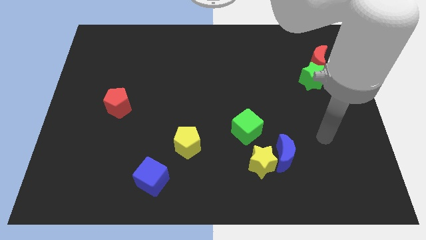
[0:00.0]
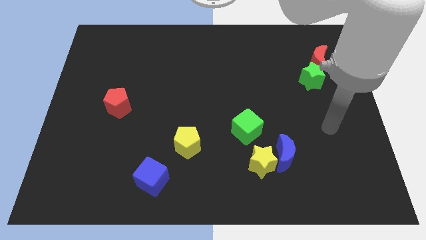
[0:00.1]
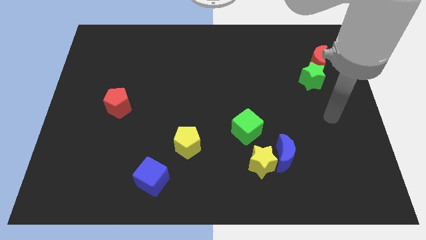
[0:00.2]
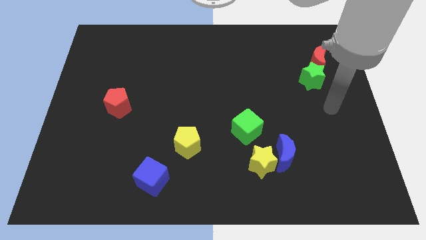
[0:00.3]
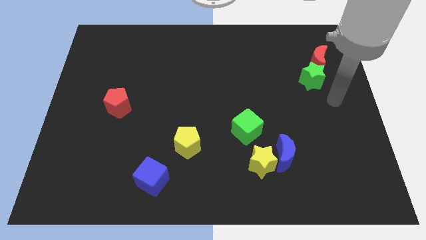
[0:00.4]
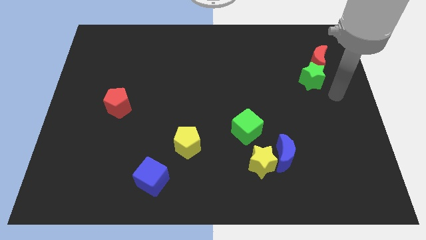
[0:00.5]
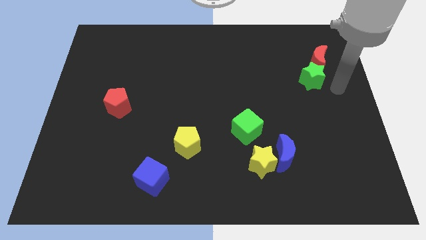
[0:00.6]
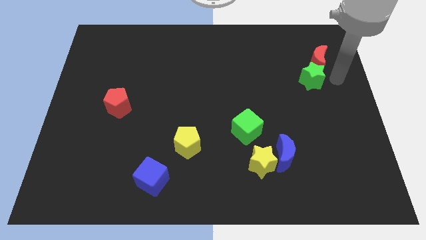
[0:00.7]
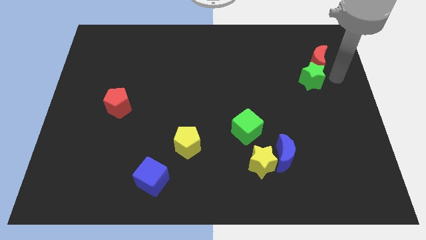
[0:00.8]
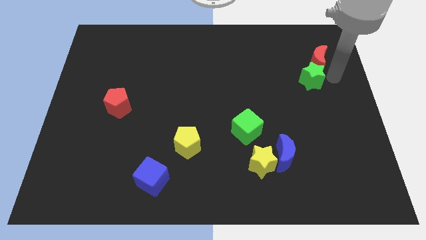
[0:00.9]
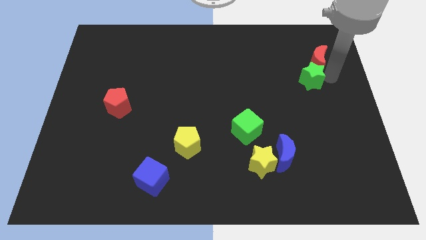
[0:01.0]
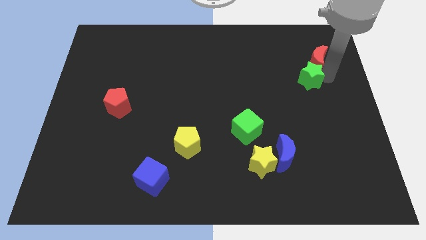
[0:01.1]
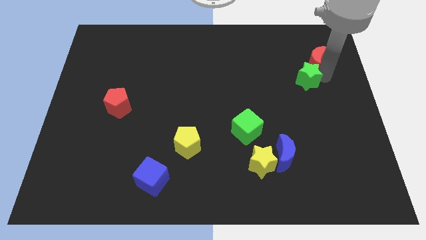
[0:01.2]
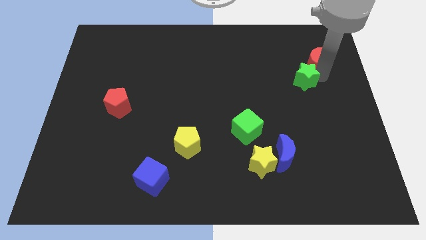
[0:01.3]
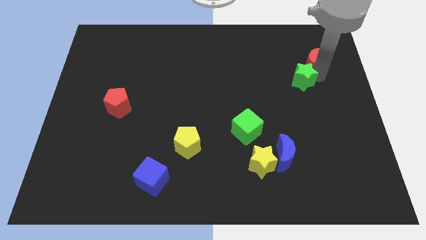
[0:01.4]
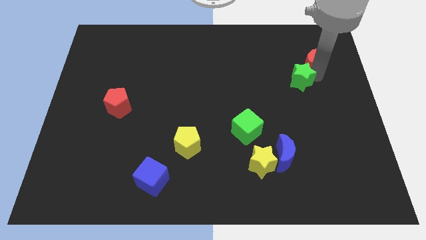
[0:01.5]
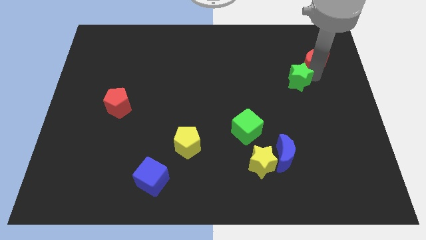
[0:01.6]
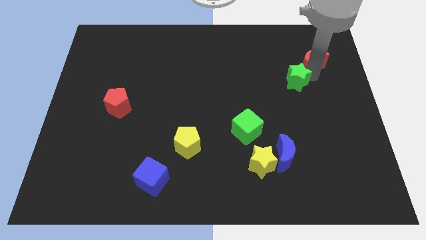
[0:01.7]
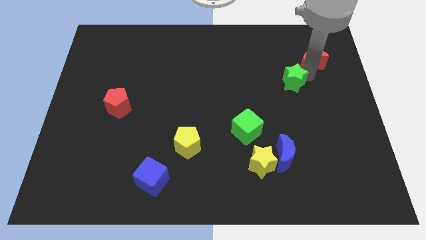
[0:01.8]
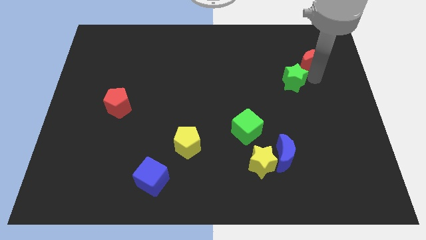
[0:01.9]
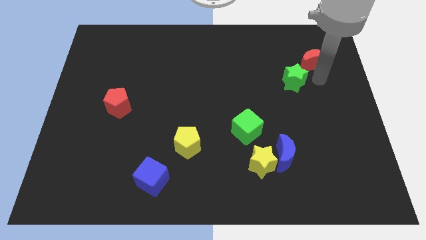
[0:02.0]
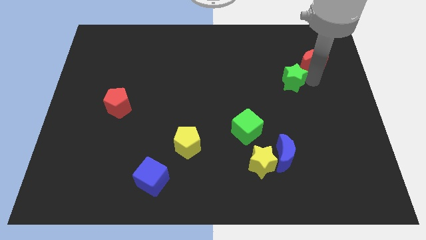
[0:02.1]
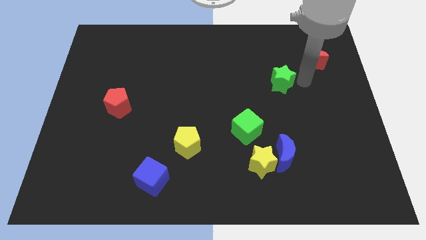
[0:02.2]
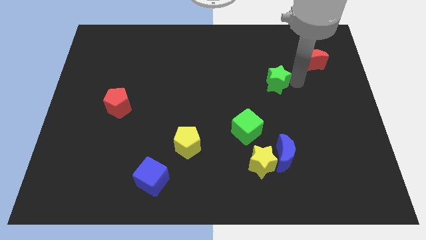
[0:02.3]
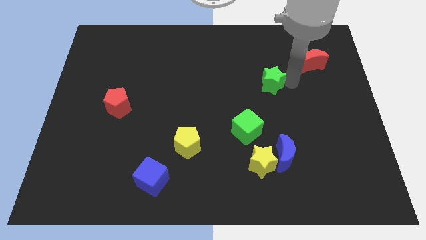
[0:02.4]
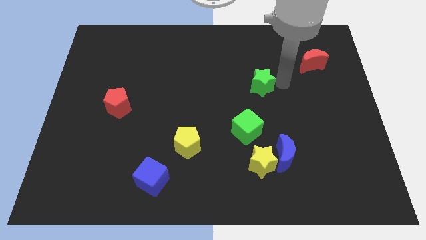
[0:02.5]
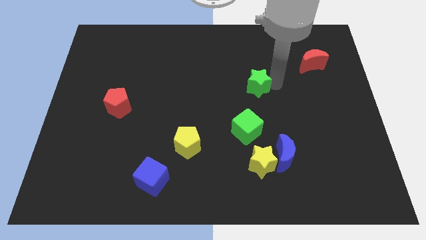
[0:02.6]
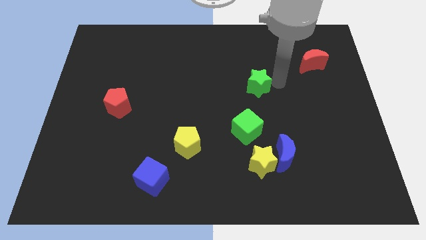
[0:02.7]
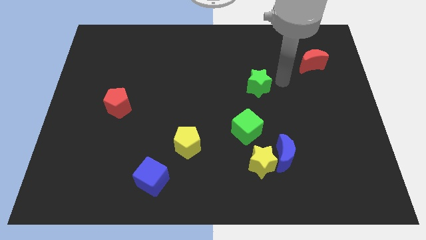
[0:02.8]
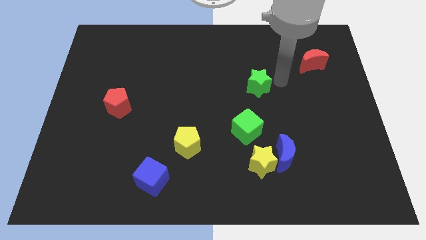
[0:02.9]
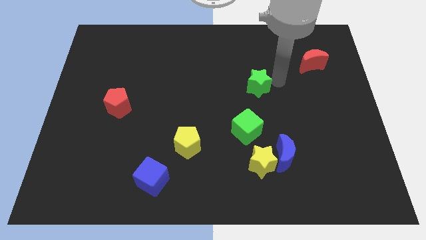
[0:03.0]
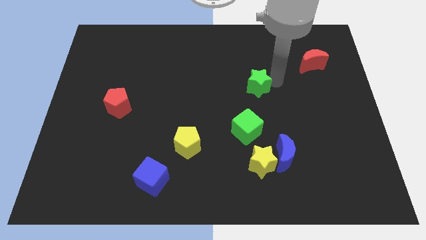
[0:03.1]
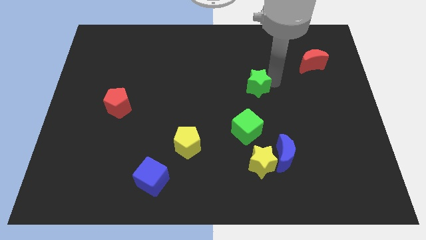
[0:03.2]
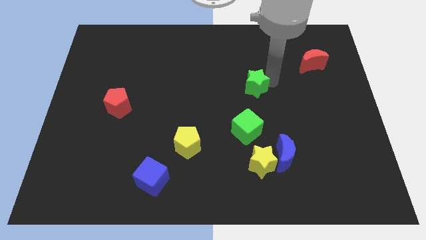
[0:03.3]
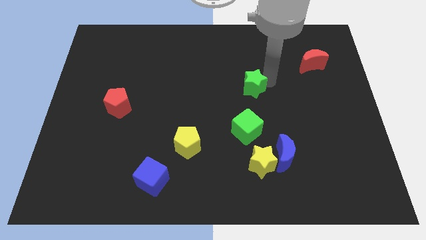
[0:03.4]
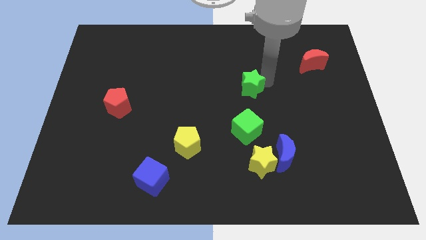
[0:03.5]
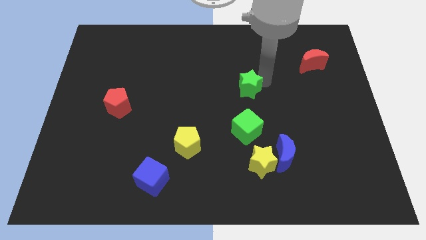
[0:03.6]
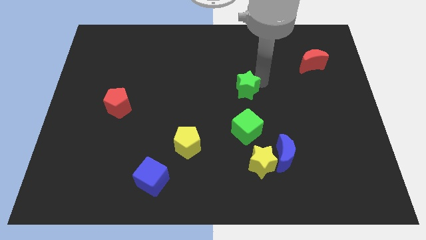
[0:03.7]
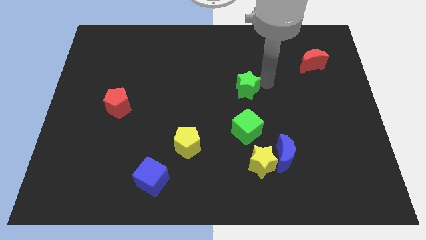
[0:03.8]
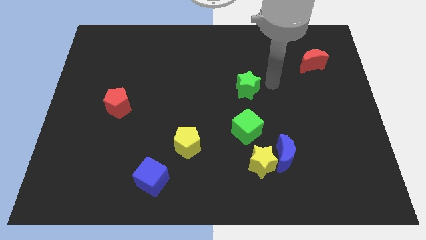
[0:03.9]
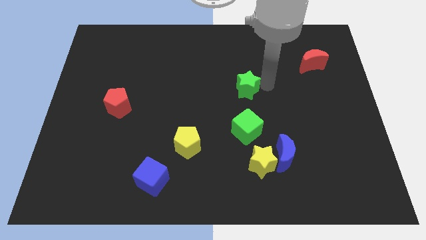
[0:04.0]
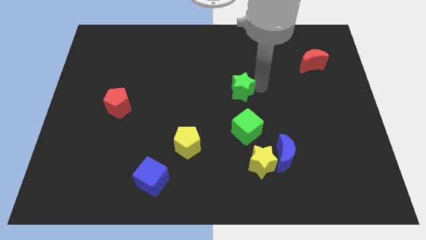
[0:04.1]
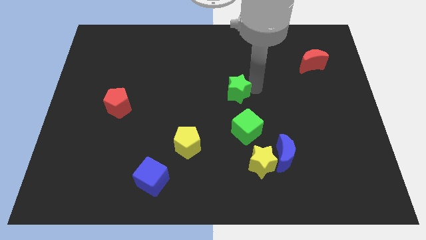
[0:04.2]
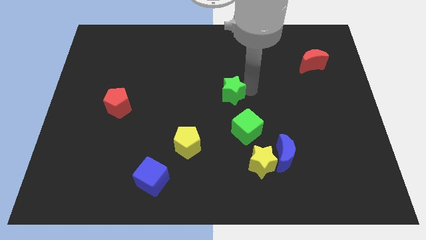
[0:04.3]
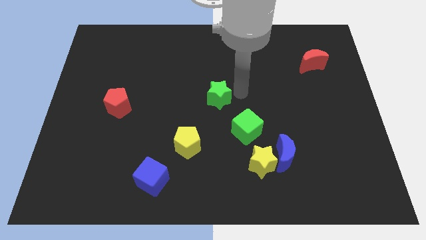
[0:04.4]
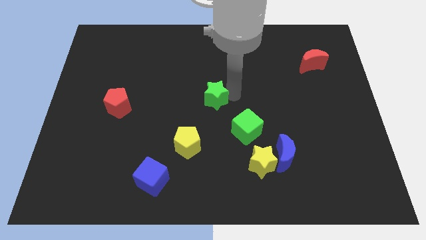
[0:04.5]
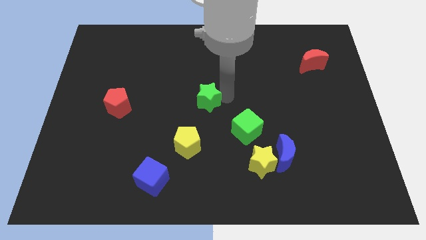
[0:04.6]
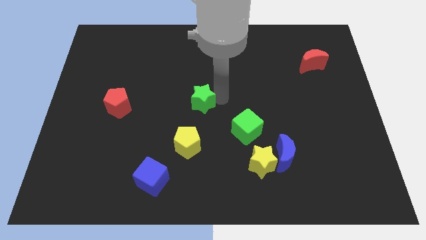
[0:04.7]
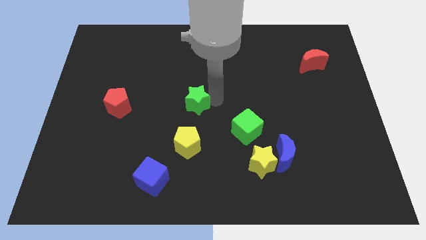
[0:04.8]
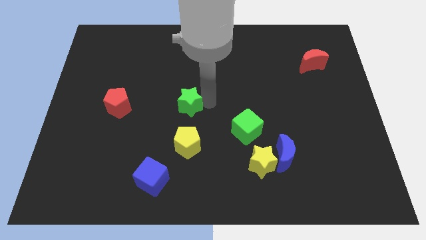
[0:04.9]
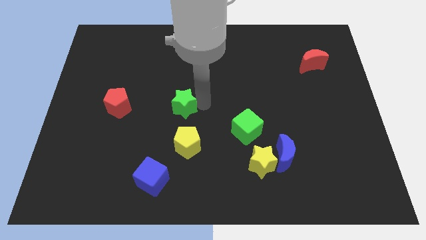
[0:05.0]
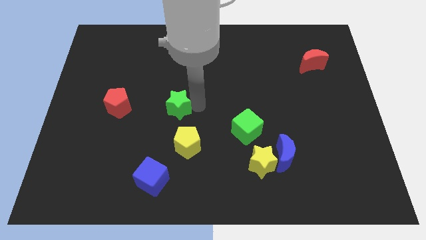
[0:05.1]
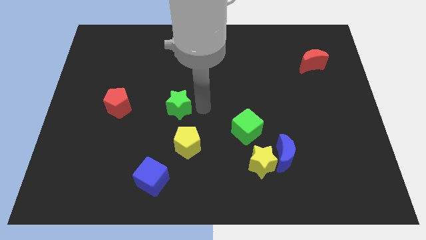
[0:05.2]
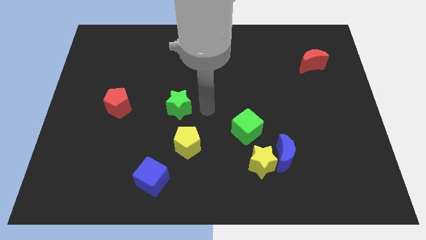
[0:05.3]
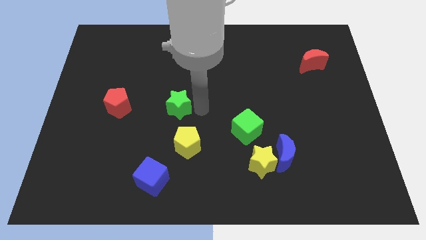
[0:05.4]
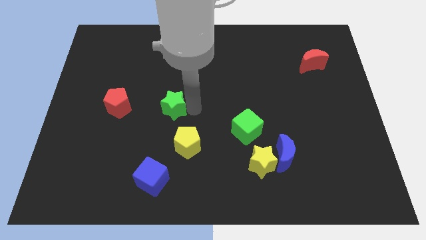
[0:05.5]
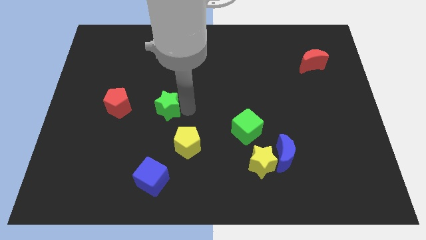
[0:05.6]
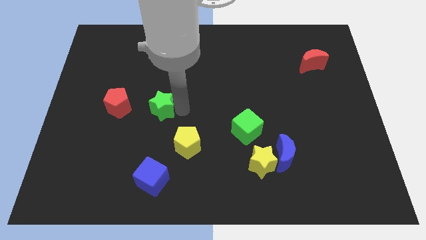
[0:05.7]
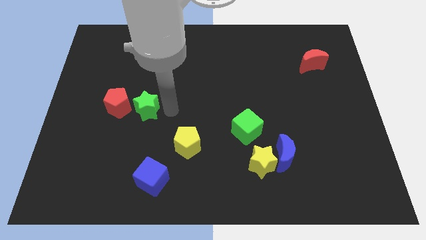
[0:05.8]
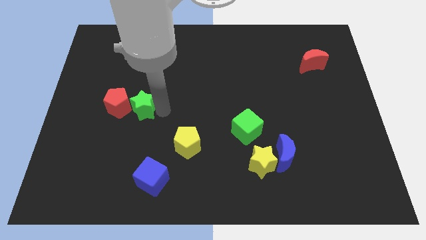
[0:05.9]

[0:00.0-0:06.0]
put the green star to the red pentagon
